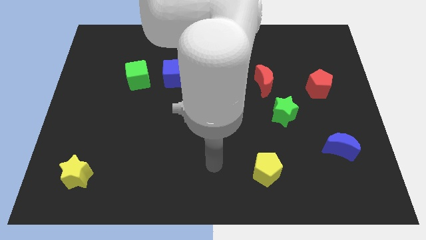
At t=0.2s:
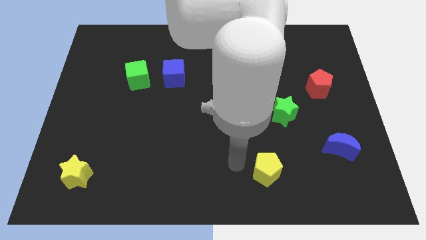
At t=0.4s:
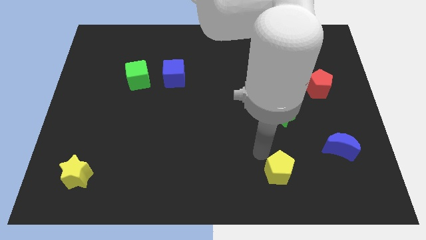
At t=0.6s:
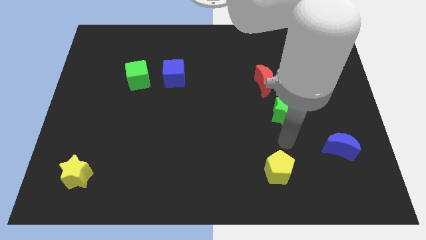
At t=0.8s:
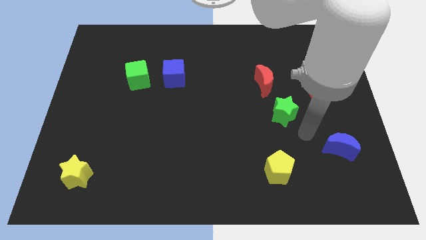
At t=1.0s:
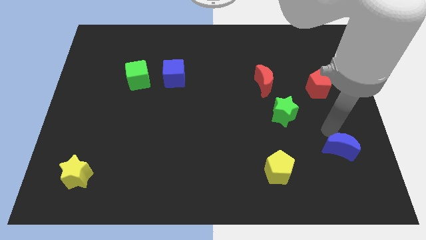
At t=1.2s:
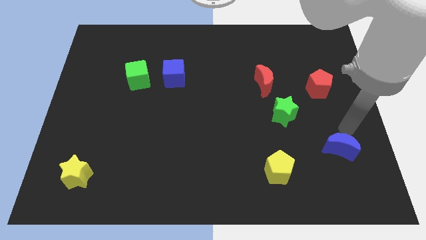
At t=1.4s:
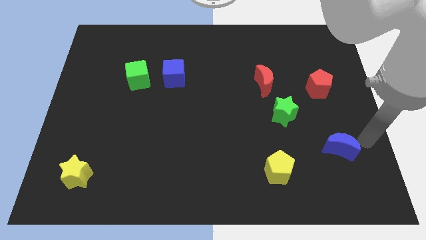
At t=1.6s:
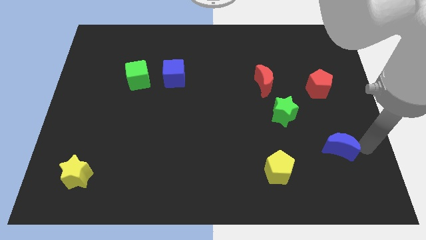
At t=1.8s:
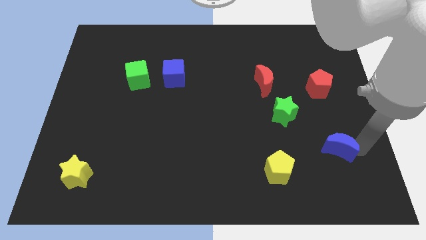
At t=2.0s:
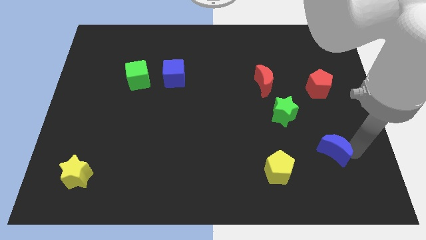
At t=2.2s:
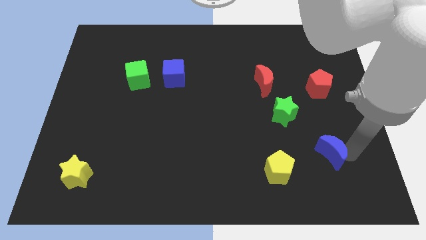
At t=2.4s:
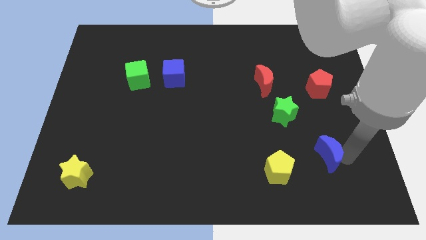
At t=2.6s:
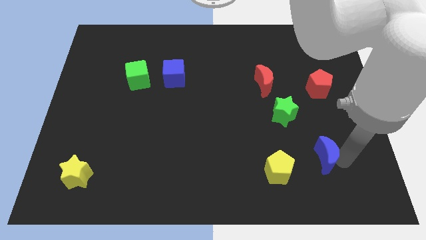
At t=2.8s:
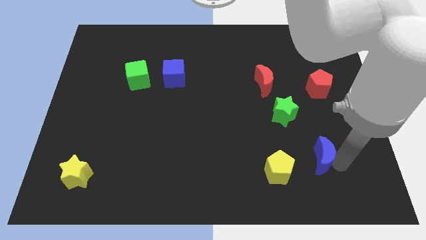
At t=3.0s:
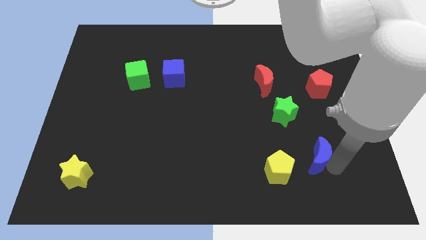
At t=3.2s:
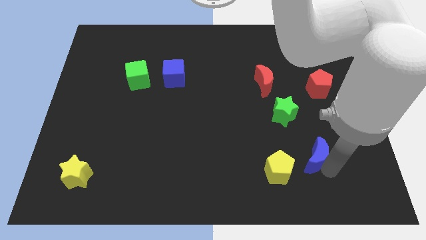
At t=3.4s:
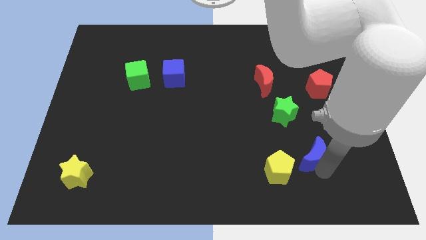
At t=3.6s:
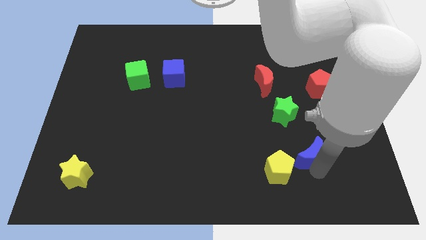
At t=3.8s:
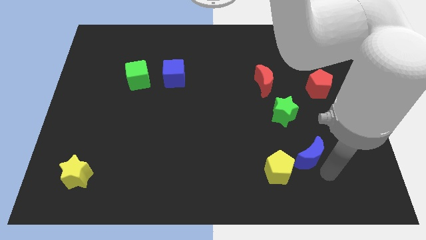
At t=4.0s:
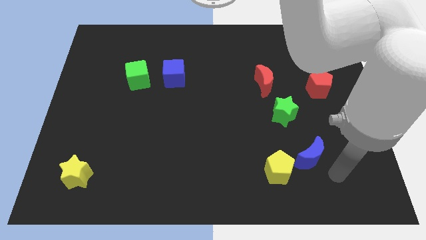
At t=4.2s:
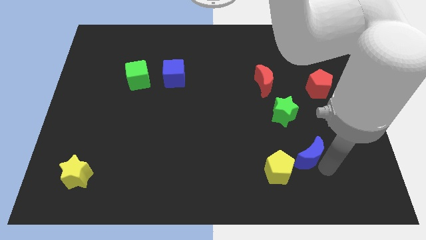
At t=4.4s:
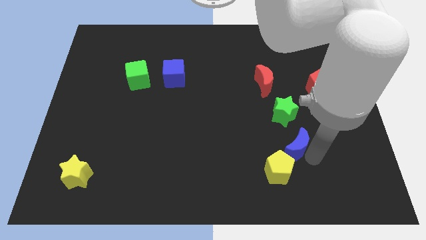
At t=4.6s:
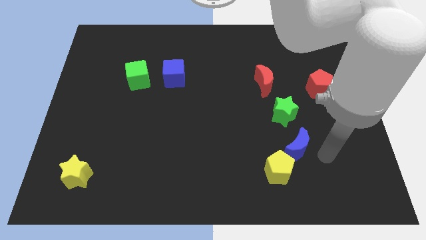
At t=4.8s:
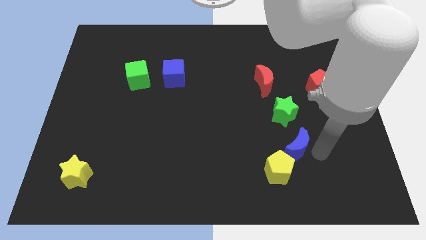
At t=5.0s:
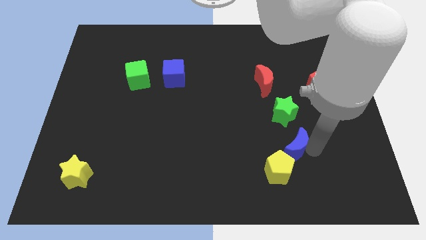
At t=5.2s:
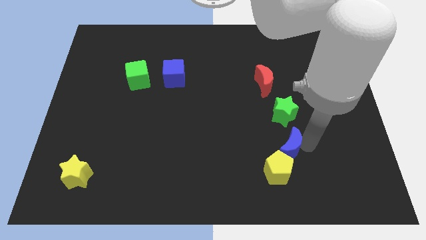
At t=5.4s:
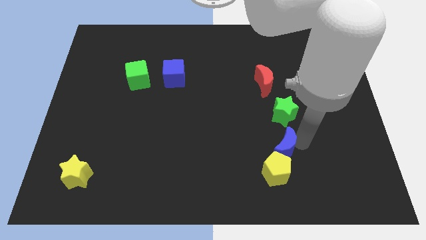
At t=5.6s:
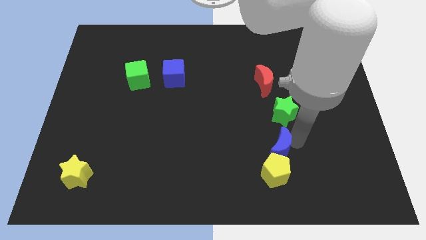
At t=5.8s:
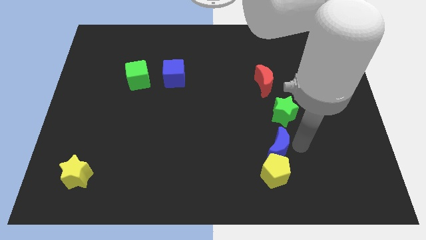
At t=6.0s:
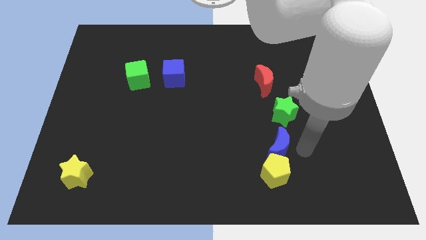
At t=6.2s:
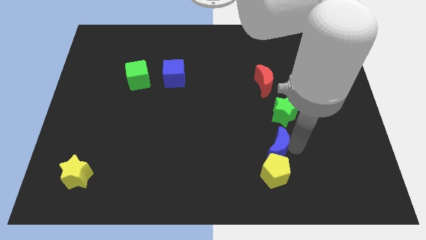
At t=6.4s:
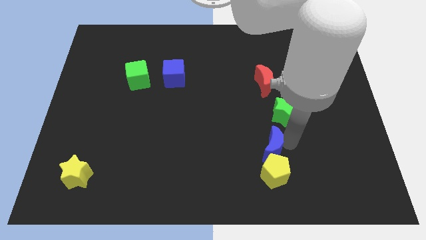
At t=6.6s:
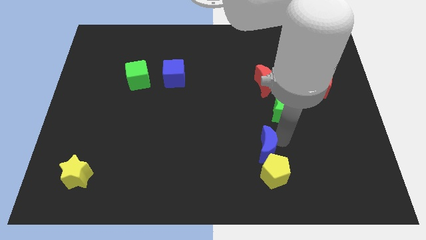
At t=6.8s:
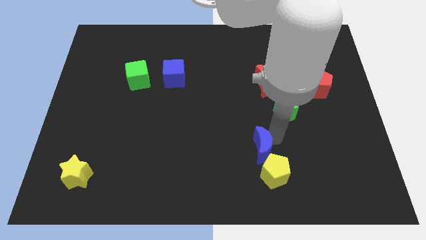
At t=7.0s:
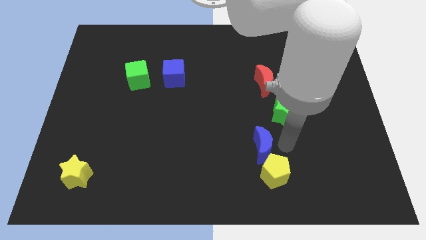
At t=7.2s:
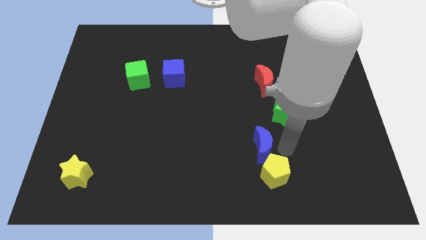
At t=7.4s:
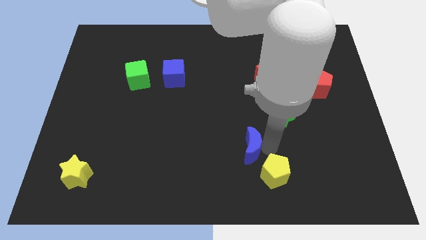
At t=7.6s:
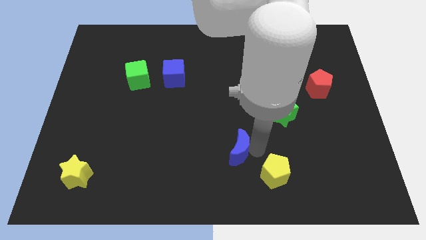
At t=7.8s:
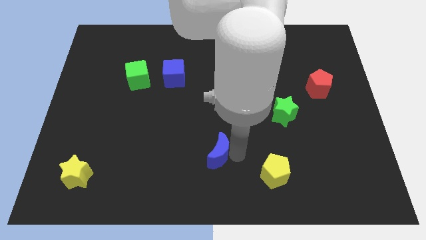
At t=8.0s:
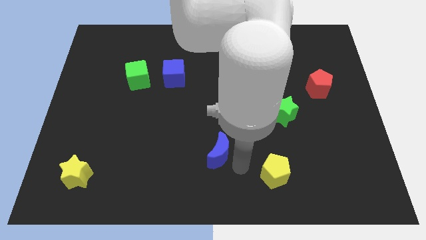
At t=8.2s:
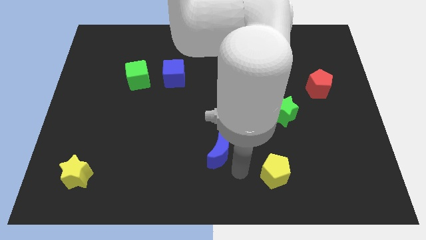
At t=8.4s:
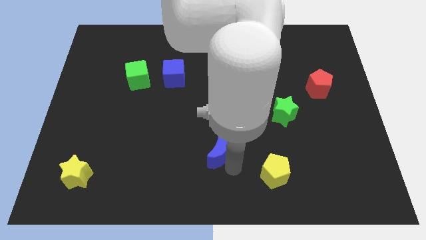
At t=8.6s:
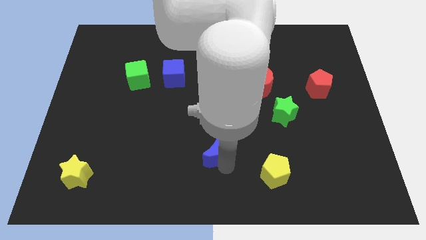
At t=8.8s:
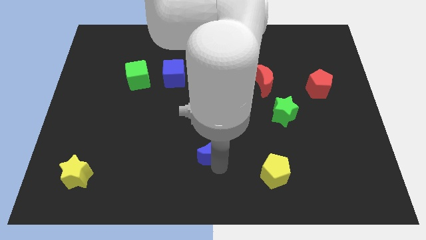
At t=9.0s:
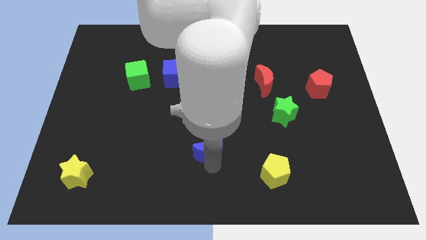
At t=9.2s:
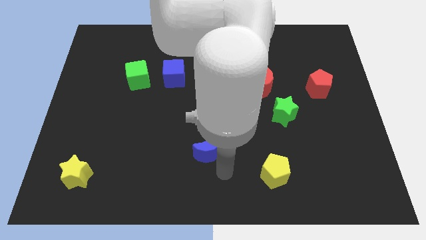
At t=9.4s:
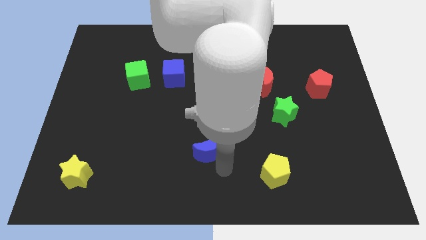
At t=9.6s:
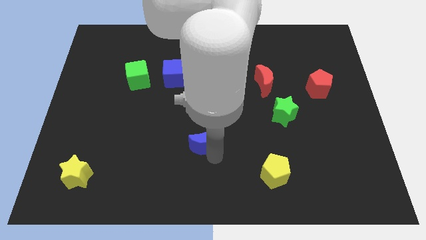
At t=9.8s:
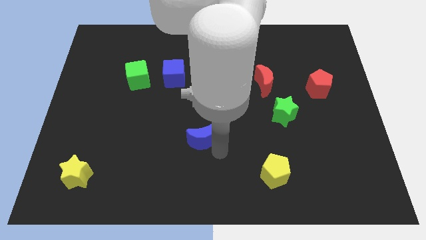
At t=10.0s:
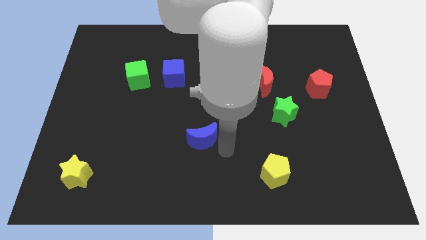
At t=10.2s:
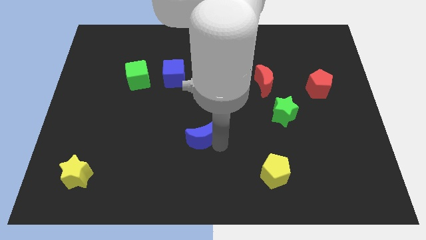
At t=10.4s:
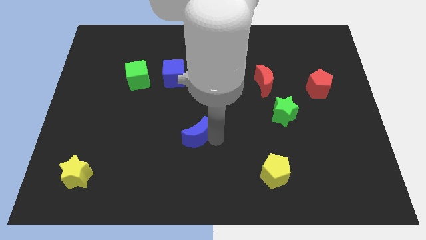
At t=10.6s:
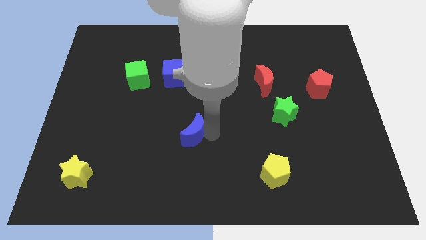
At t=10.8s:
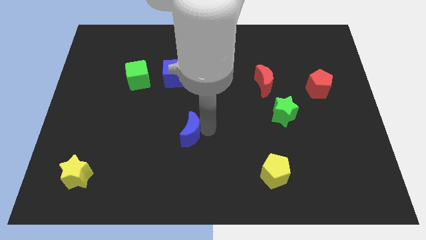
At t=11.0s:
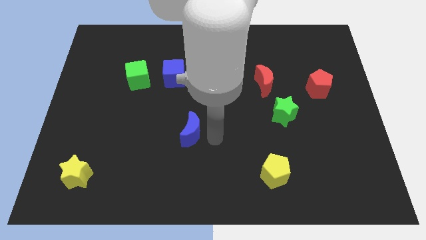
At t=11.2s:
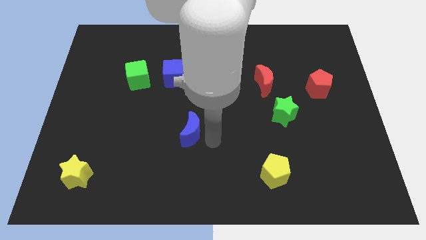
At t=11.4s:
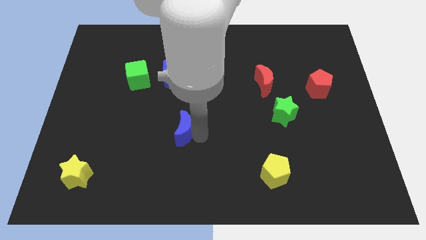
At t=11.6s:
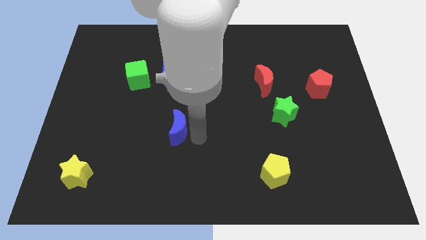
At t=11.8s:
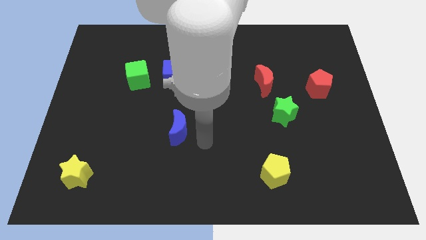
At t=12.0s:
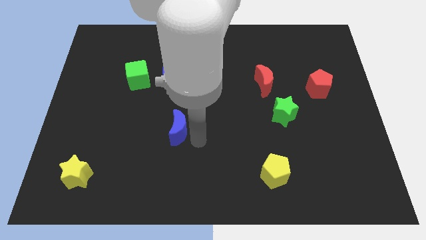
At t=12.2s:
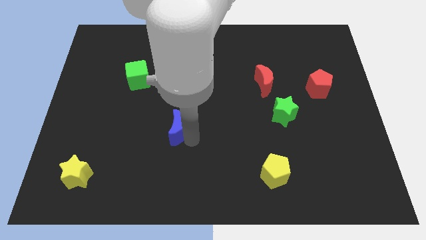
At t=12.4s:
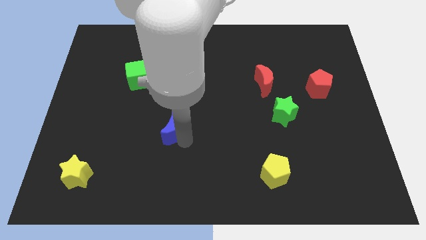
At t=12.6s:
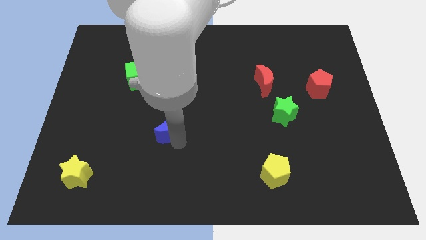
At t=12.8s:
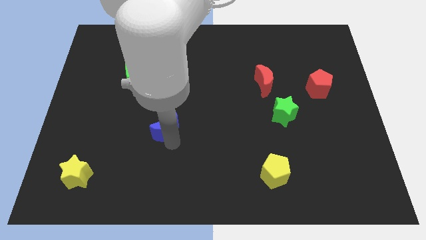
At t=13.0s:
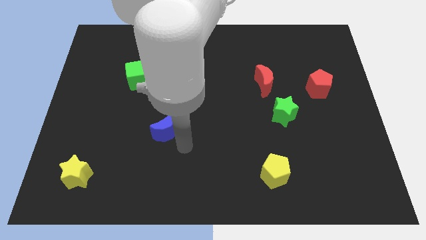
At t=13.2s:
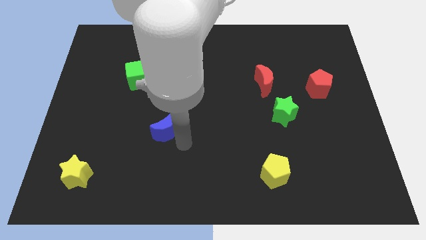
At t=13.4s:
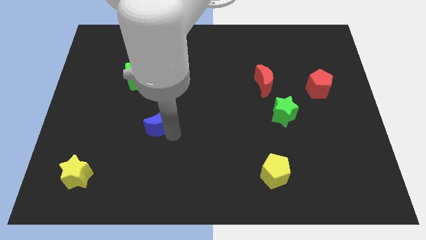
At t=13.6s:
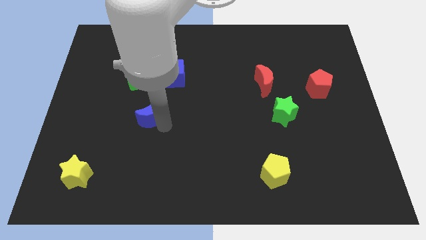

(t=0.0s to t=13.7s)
slide the blue moon below the green cube

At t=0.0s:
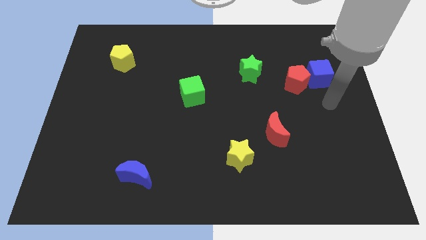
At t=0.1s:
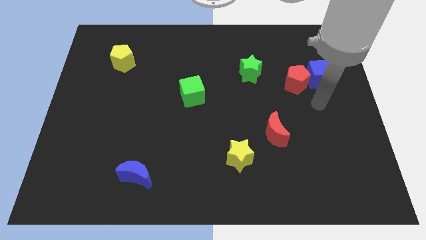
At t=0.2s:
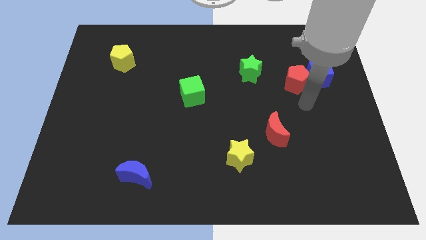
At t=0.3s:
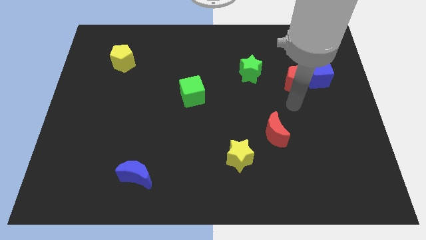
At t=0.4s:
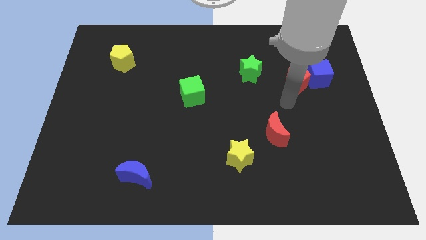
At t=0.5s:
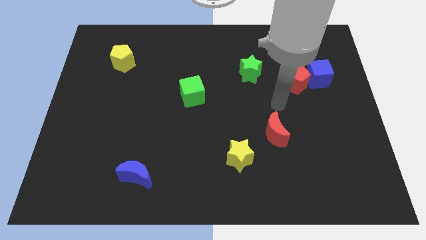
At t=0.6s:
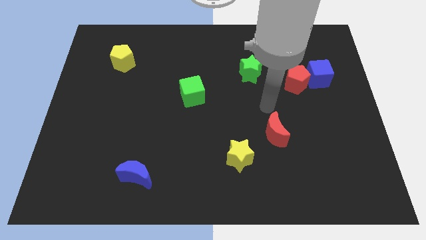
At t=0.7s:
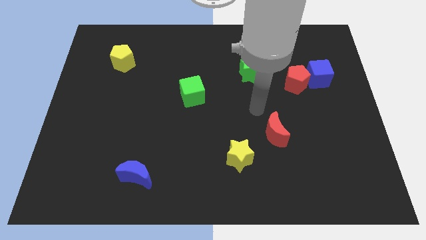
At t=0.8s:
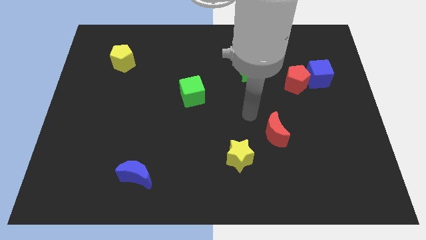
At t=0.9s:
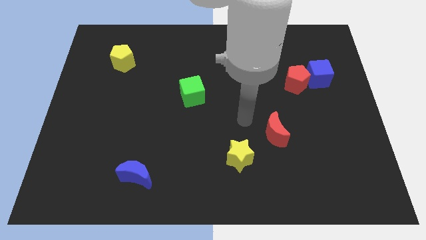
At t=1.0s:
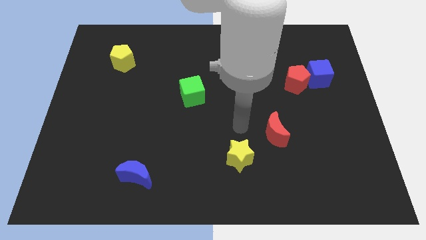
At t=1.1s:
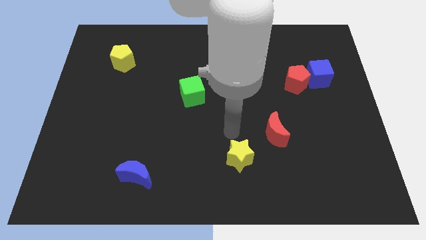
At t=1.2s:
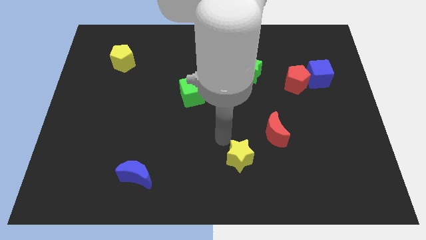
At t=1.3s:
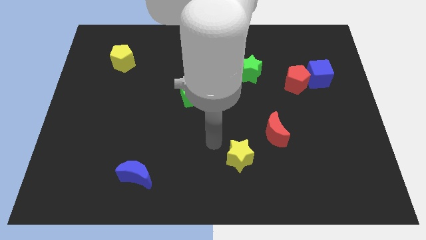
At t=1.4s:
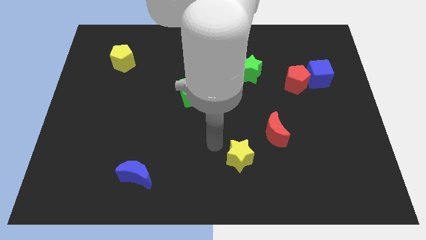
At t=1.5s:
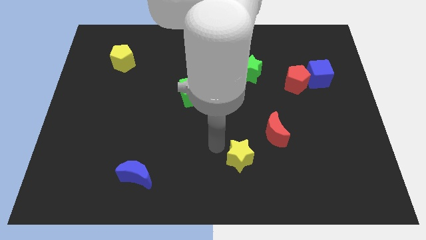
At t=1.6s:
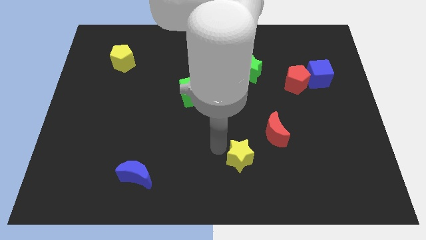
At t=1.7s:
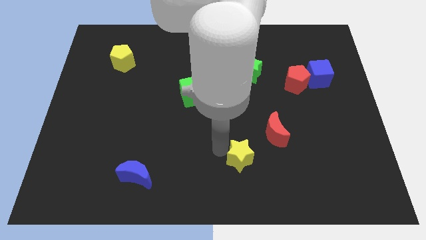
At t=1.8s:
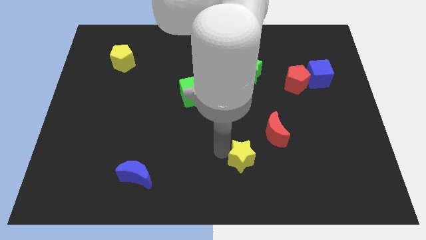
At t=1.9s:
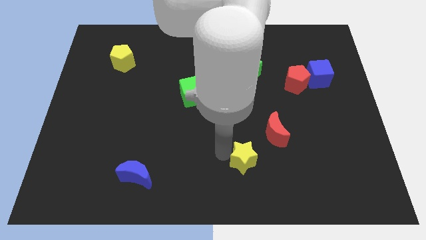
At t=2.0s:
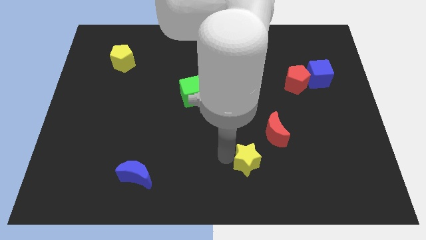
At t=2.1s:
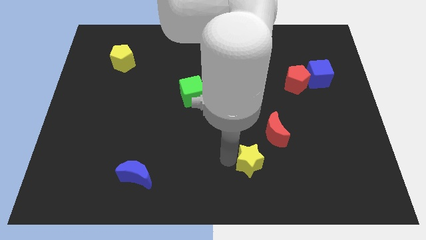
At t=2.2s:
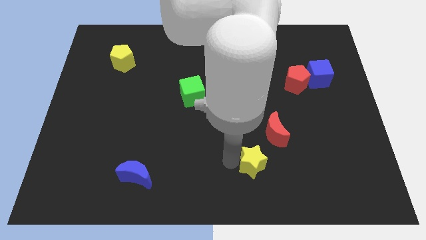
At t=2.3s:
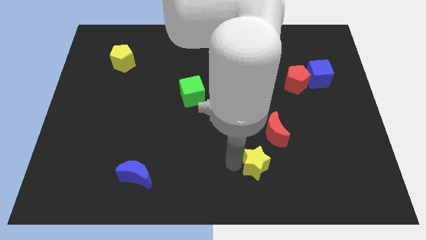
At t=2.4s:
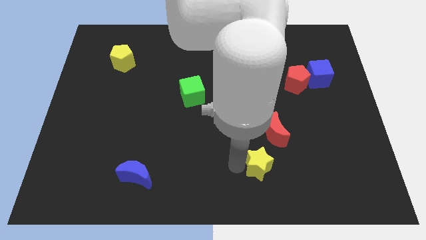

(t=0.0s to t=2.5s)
move the yellow star to the bottom side of the red moon
